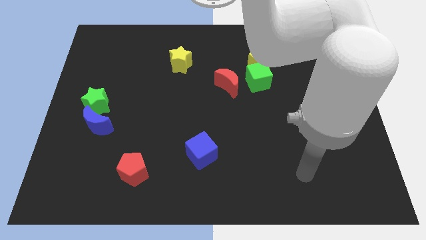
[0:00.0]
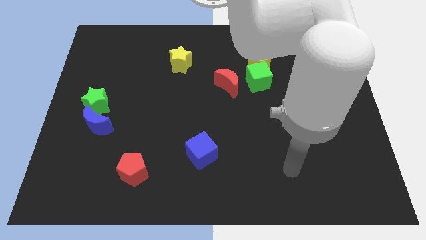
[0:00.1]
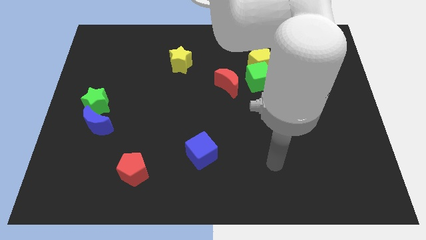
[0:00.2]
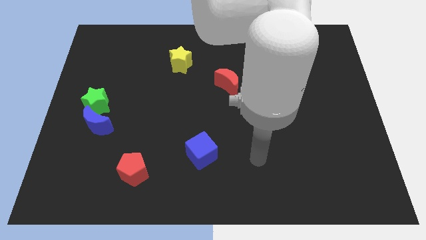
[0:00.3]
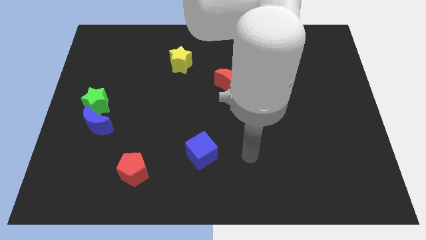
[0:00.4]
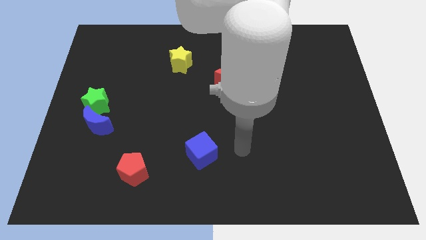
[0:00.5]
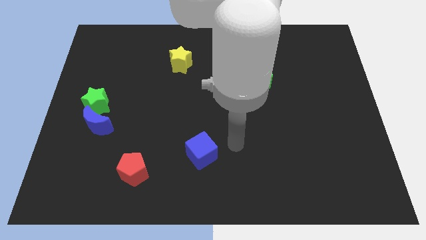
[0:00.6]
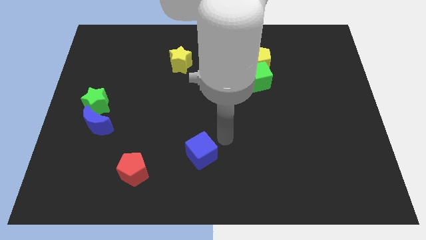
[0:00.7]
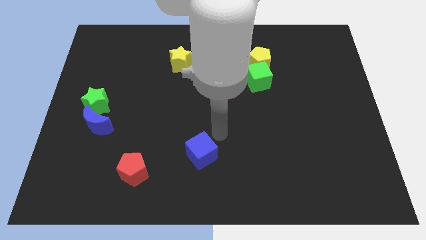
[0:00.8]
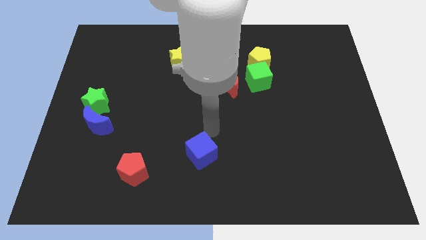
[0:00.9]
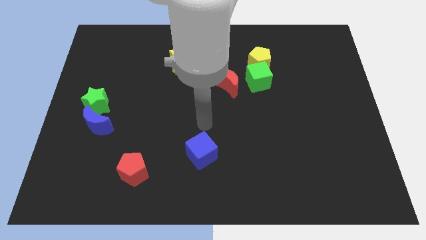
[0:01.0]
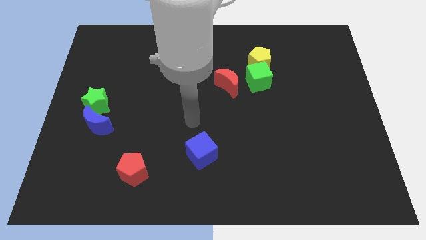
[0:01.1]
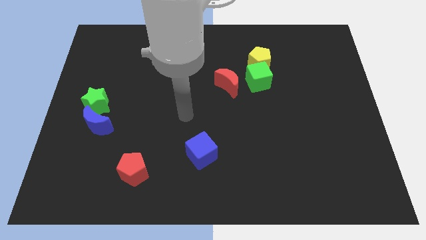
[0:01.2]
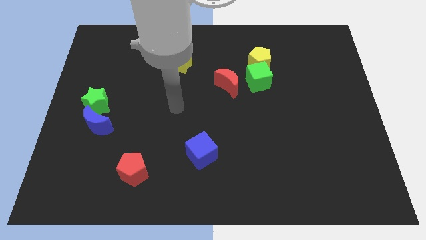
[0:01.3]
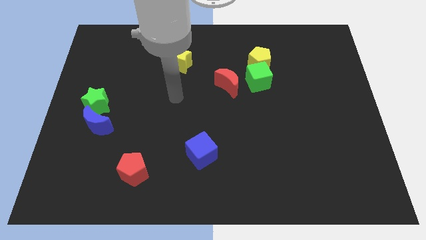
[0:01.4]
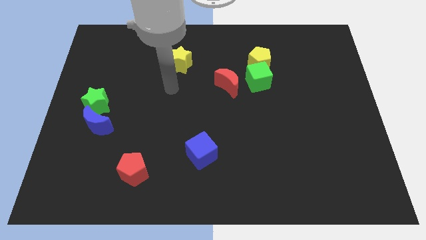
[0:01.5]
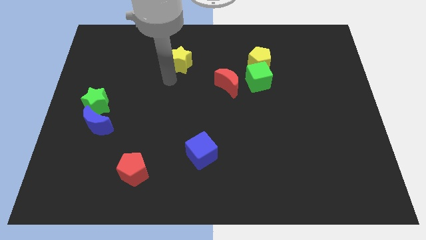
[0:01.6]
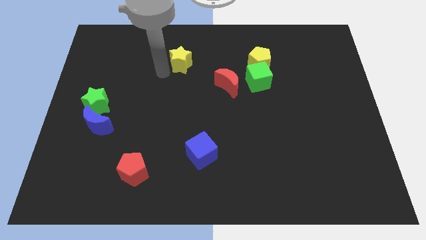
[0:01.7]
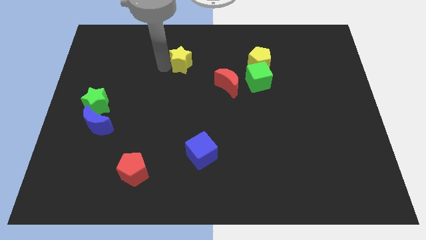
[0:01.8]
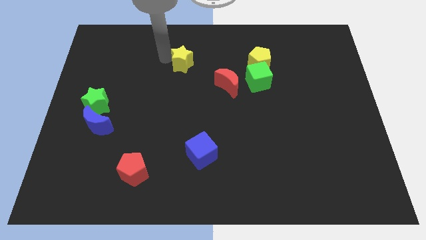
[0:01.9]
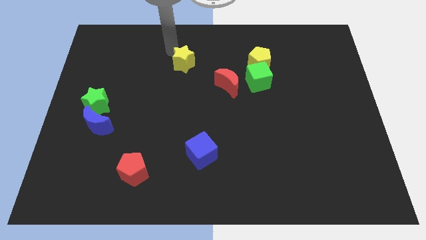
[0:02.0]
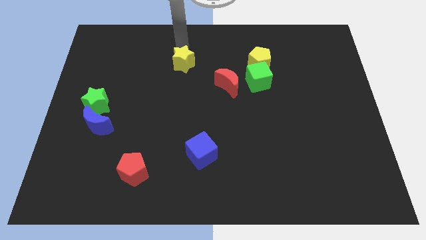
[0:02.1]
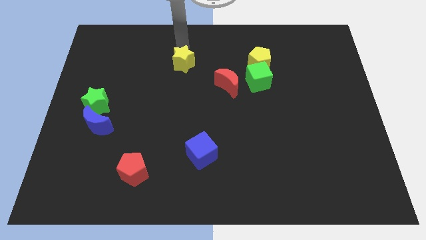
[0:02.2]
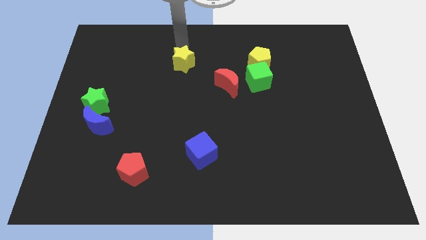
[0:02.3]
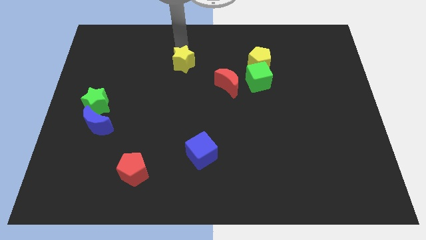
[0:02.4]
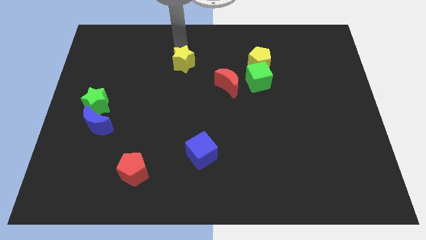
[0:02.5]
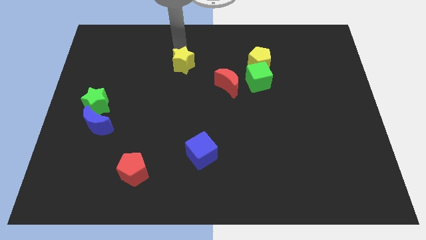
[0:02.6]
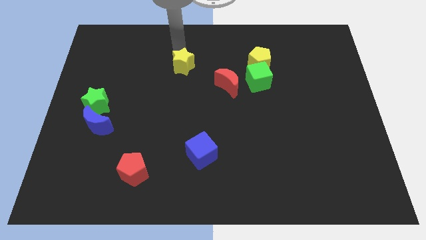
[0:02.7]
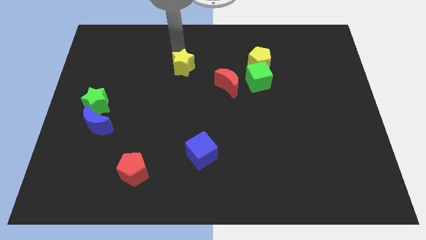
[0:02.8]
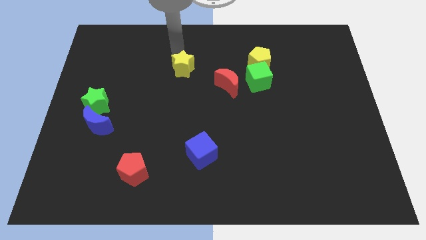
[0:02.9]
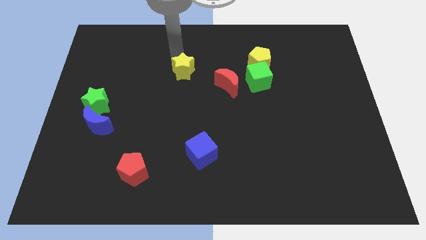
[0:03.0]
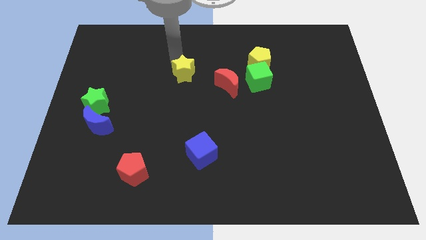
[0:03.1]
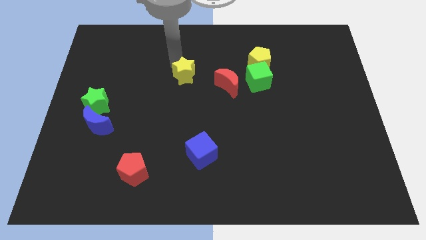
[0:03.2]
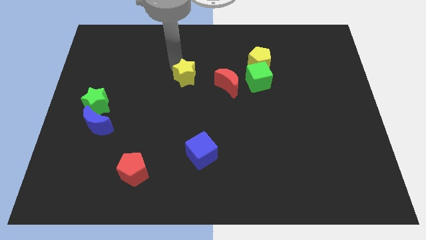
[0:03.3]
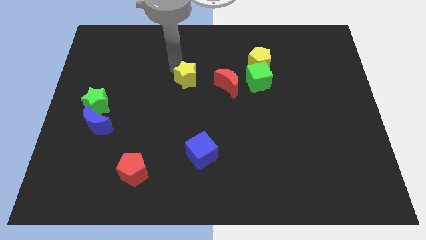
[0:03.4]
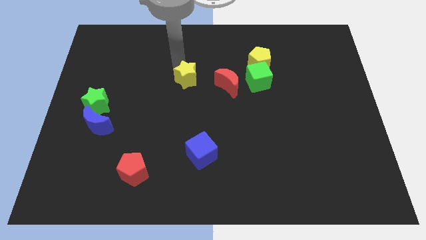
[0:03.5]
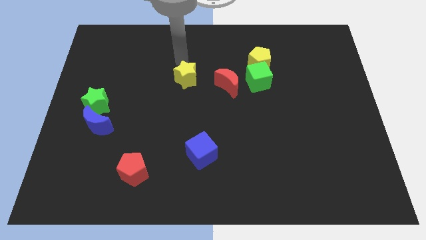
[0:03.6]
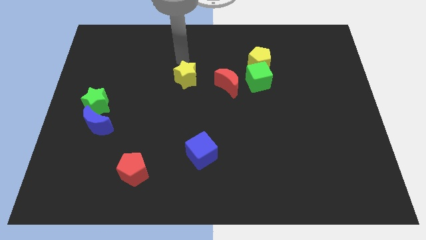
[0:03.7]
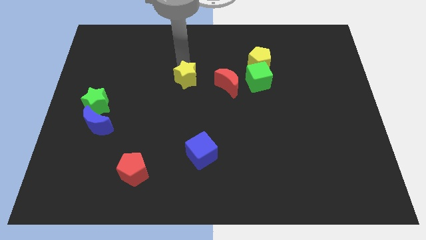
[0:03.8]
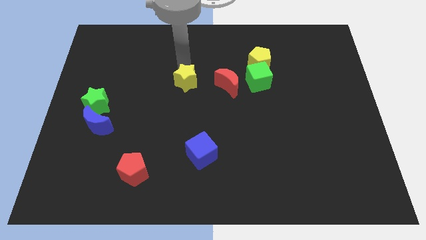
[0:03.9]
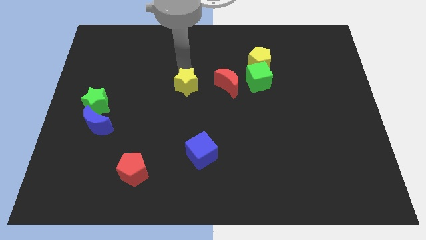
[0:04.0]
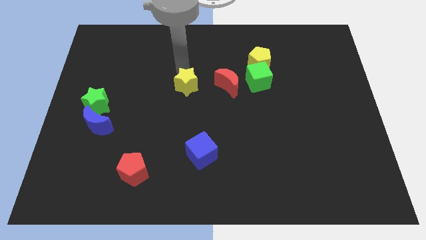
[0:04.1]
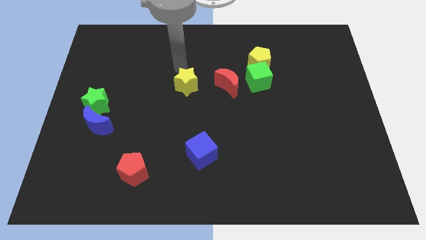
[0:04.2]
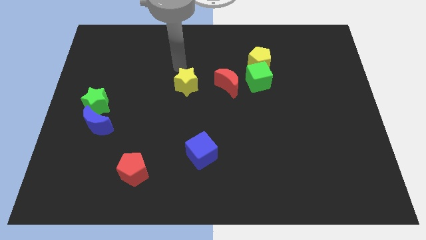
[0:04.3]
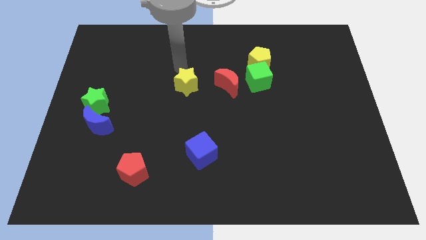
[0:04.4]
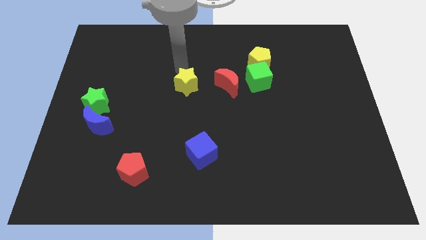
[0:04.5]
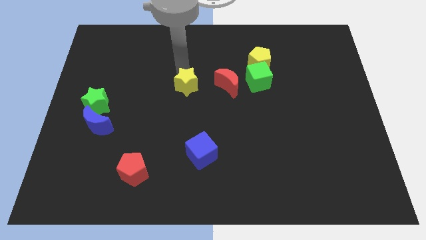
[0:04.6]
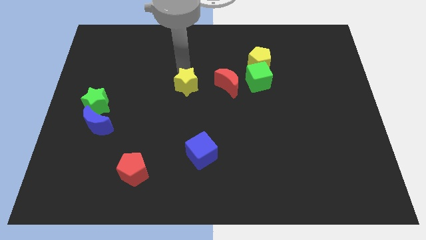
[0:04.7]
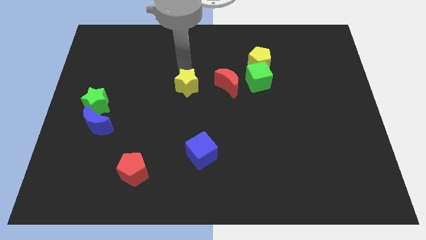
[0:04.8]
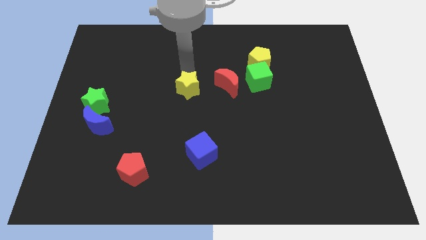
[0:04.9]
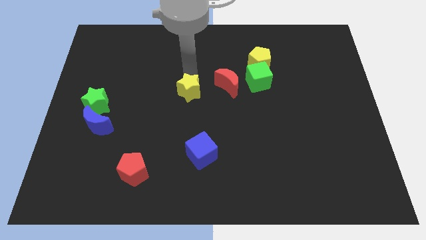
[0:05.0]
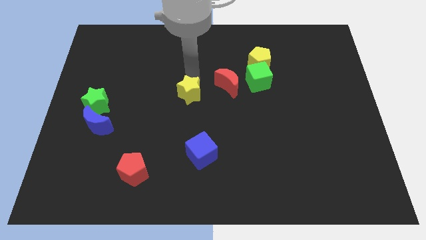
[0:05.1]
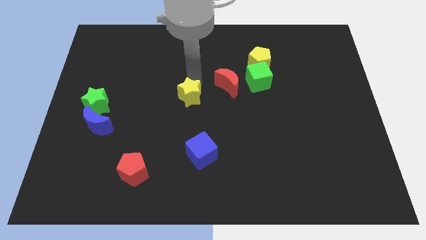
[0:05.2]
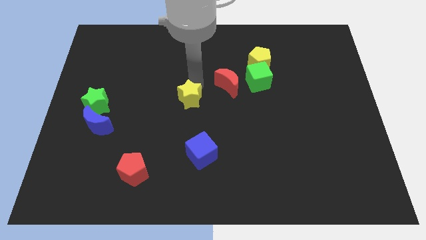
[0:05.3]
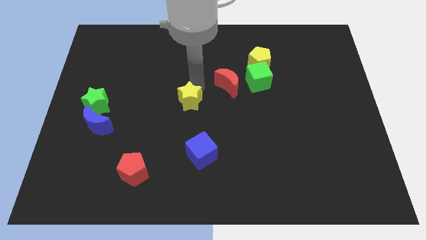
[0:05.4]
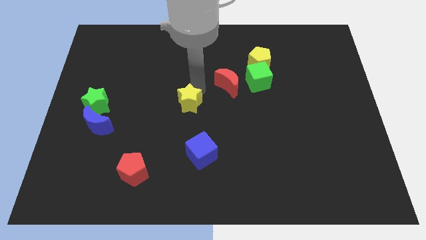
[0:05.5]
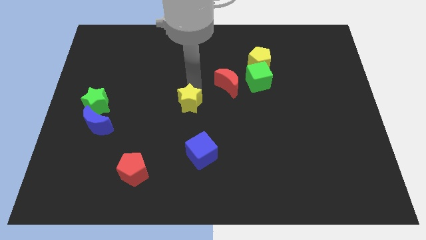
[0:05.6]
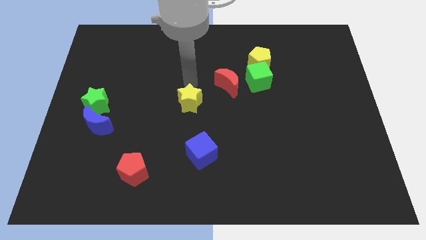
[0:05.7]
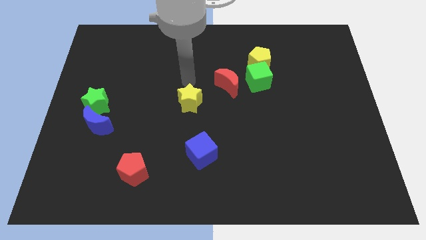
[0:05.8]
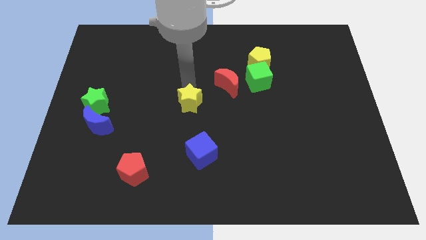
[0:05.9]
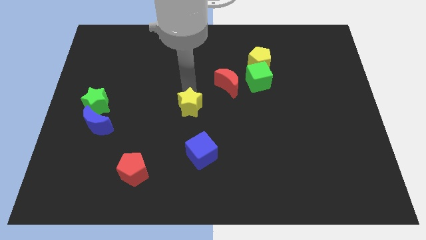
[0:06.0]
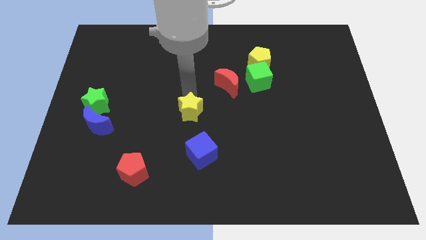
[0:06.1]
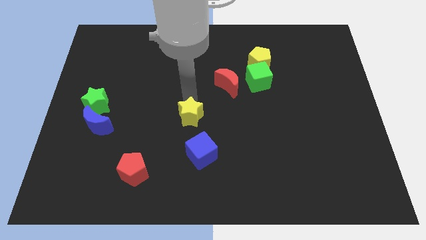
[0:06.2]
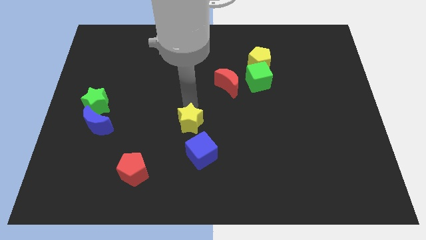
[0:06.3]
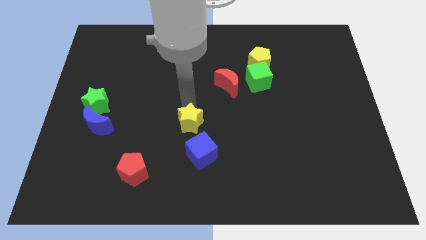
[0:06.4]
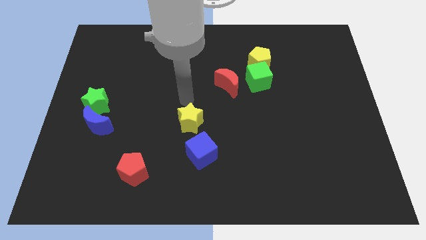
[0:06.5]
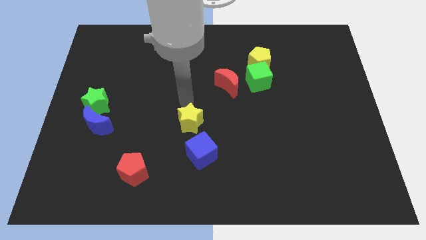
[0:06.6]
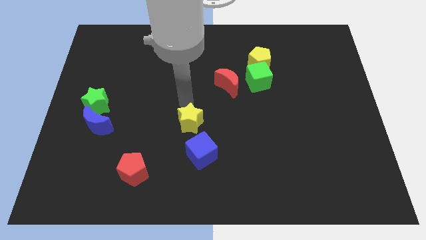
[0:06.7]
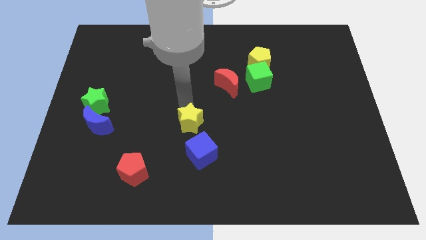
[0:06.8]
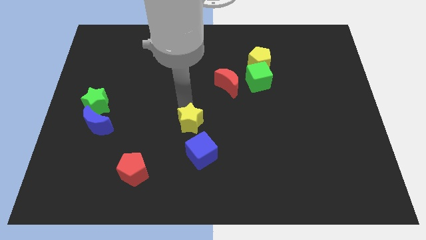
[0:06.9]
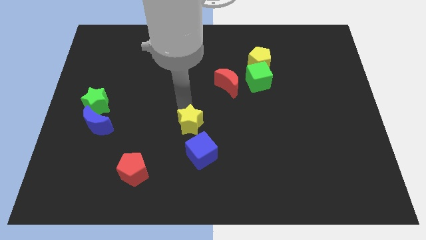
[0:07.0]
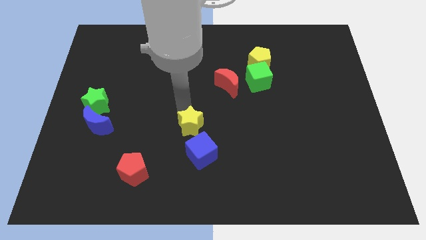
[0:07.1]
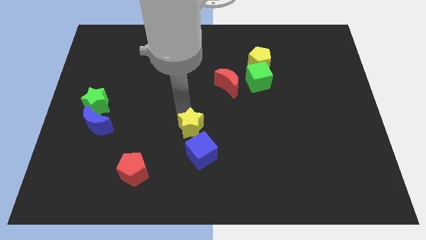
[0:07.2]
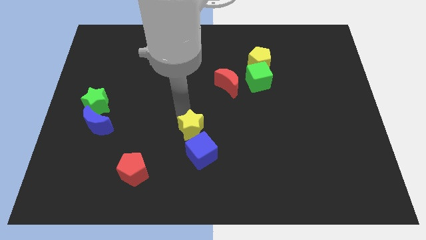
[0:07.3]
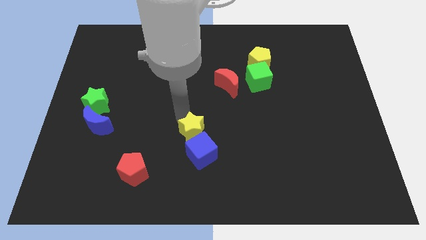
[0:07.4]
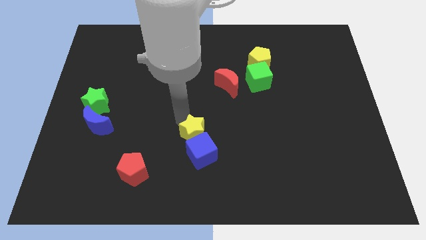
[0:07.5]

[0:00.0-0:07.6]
slide the yellow star to the blue cube

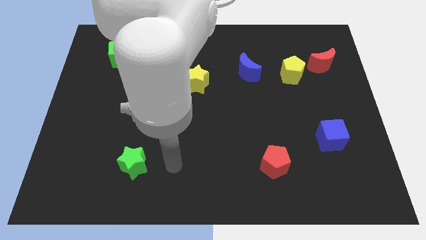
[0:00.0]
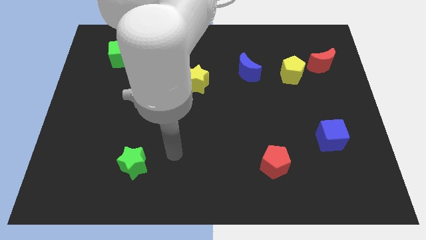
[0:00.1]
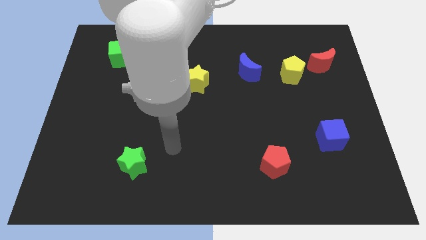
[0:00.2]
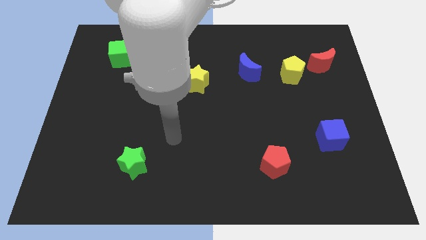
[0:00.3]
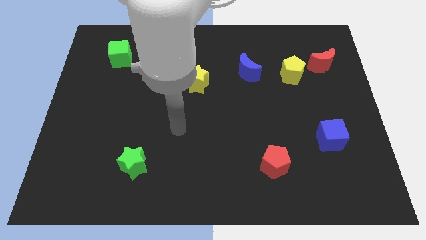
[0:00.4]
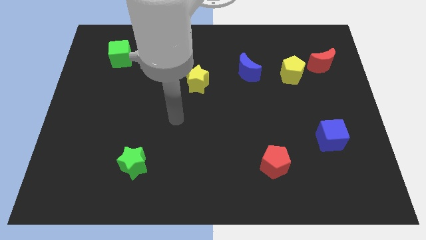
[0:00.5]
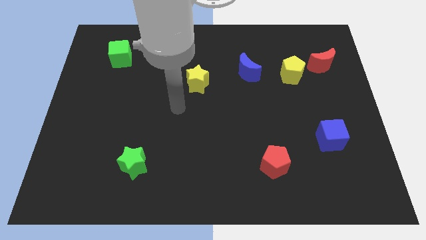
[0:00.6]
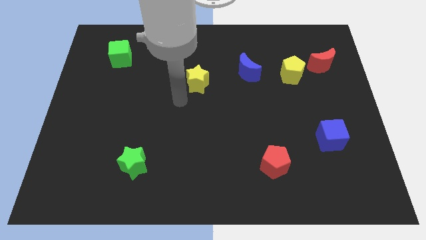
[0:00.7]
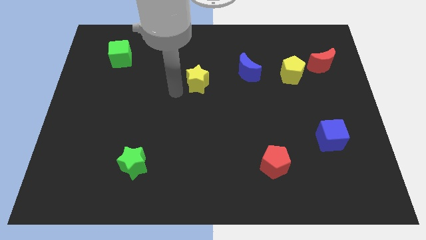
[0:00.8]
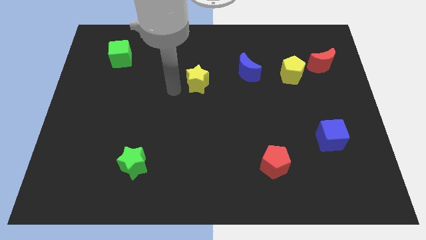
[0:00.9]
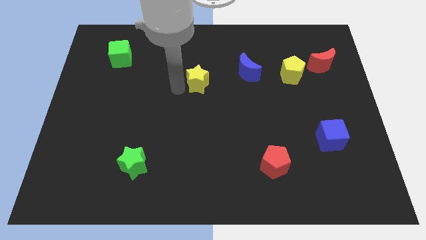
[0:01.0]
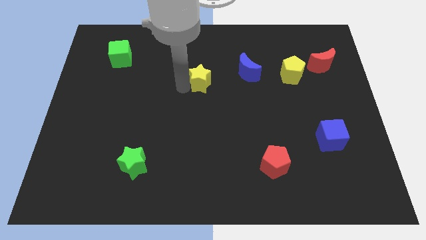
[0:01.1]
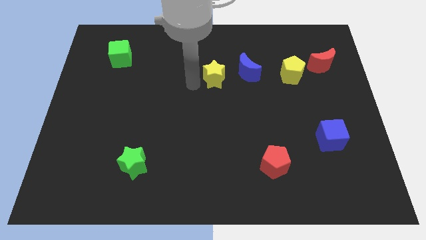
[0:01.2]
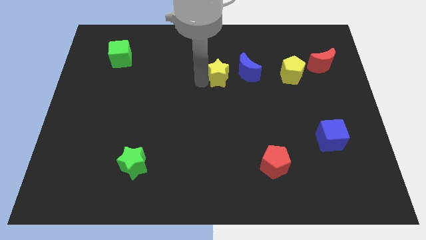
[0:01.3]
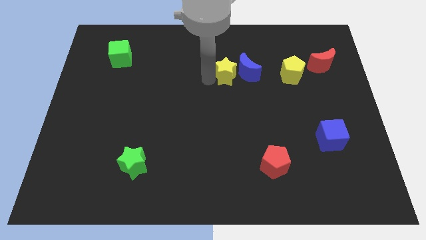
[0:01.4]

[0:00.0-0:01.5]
push the yellow star close to the blue moon
